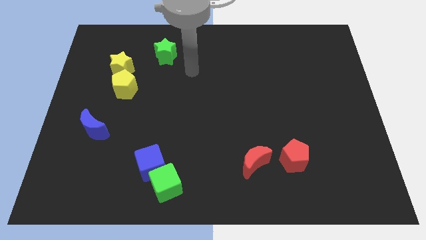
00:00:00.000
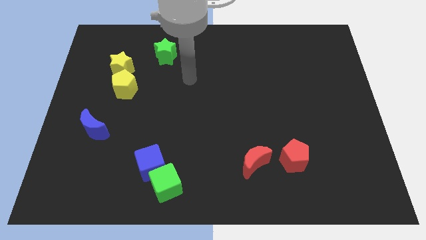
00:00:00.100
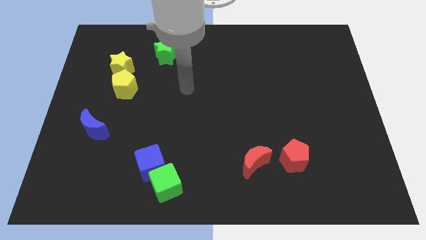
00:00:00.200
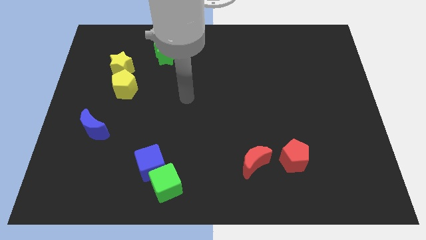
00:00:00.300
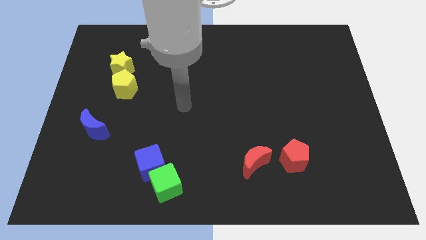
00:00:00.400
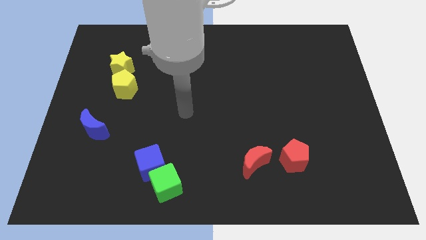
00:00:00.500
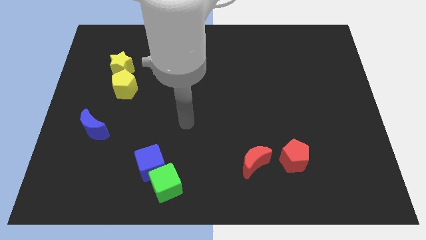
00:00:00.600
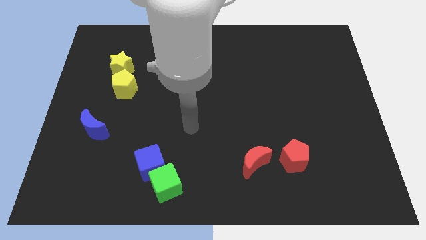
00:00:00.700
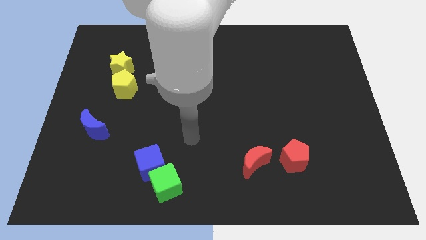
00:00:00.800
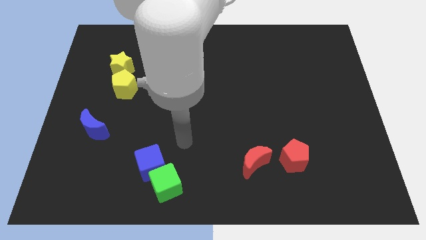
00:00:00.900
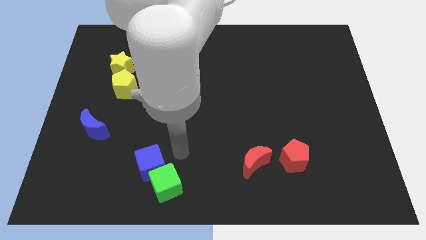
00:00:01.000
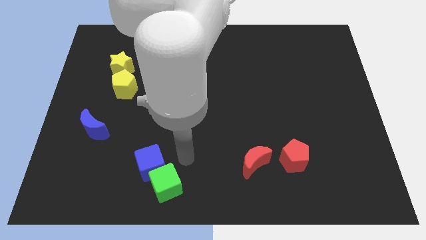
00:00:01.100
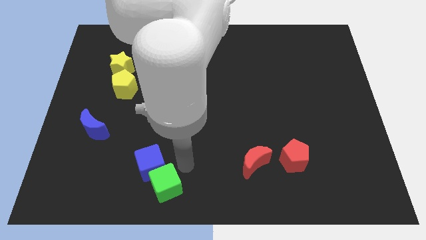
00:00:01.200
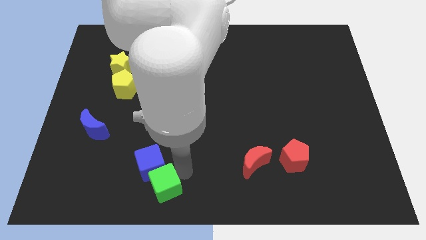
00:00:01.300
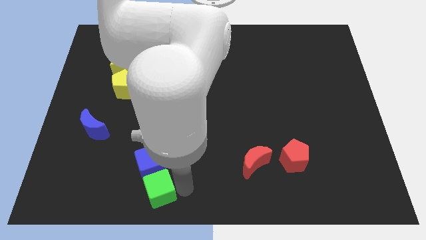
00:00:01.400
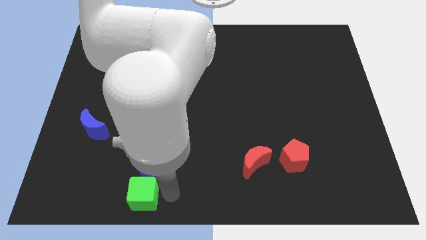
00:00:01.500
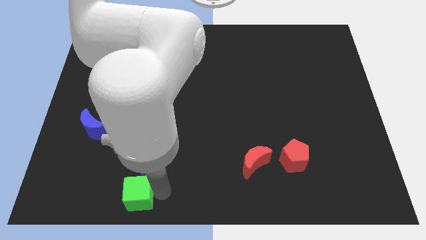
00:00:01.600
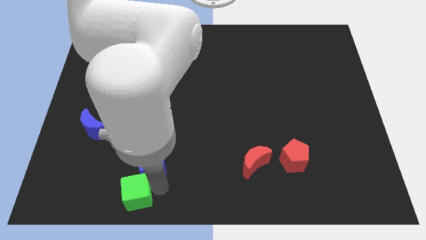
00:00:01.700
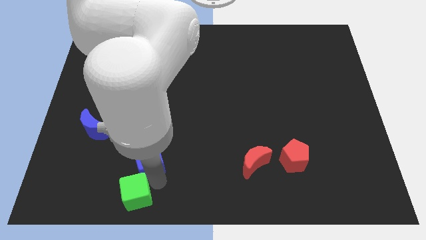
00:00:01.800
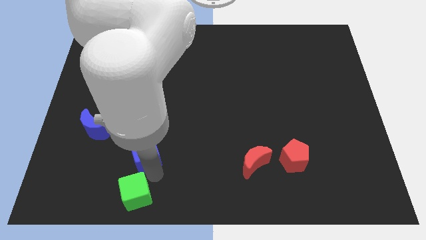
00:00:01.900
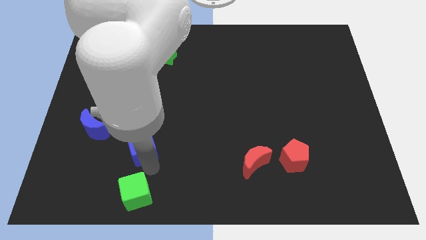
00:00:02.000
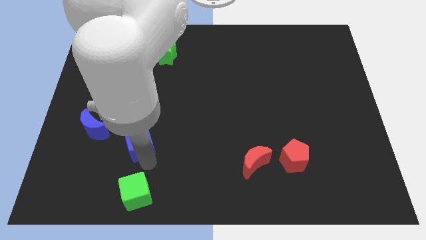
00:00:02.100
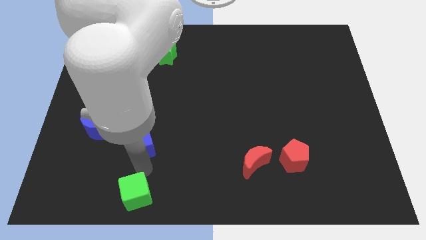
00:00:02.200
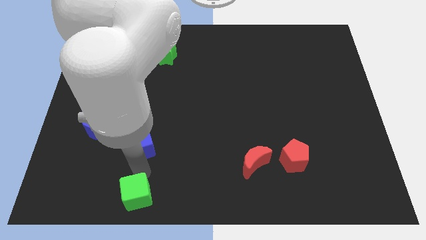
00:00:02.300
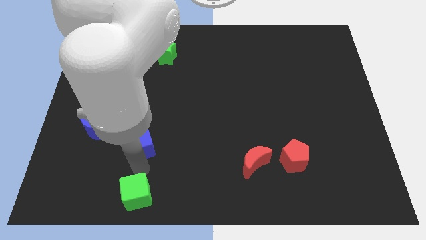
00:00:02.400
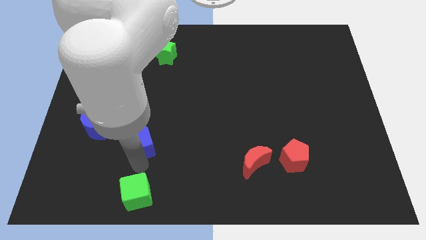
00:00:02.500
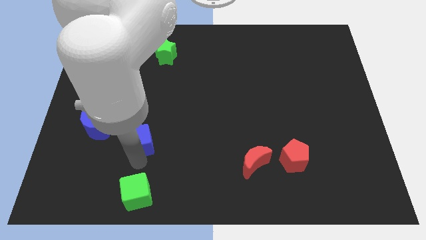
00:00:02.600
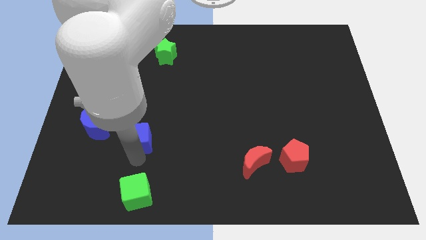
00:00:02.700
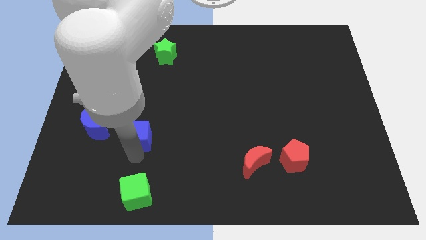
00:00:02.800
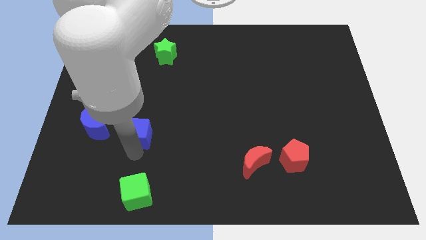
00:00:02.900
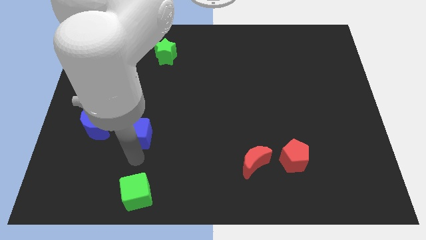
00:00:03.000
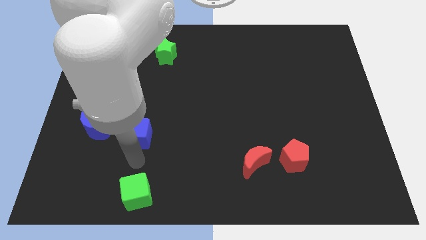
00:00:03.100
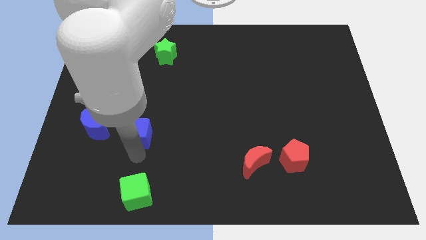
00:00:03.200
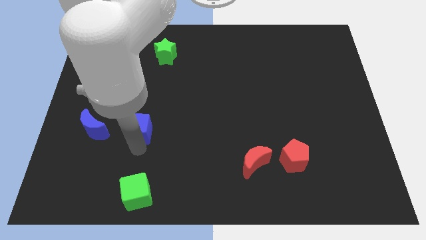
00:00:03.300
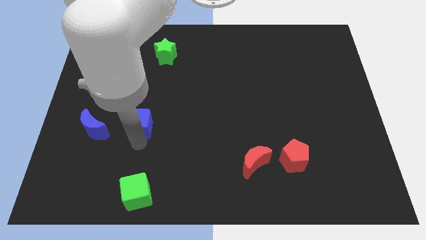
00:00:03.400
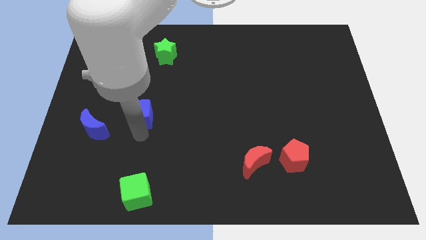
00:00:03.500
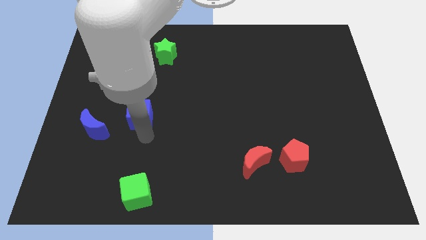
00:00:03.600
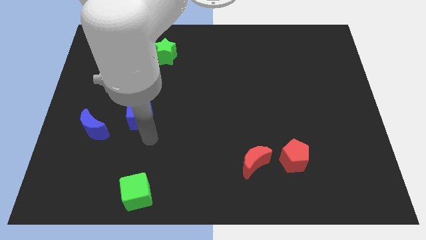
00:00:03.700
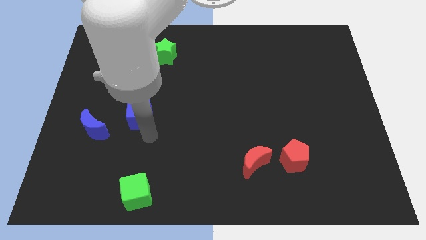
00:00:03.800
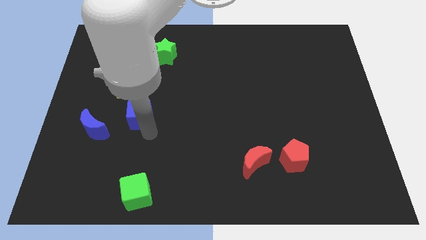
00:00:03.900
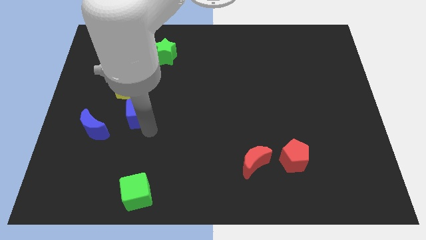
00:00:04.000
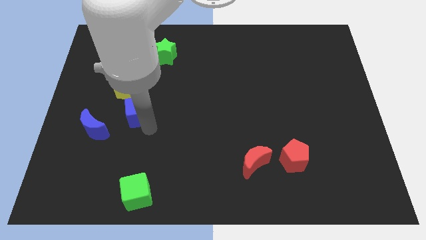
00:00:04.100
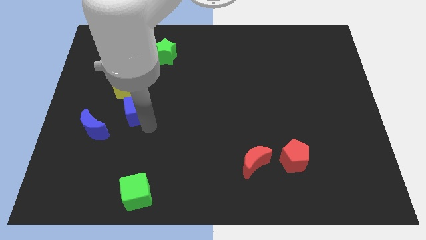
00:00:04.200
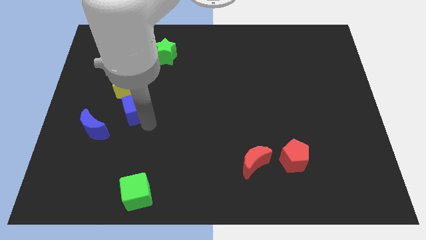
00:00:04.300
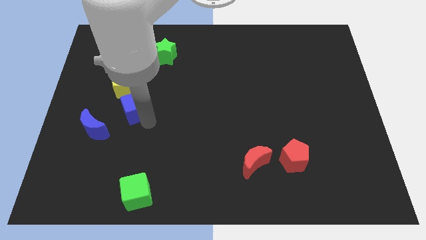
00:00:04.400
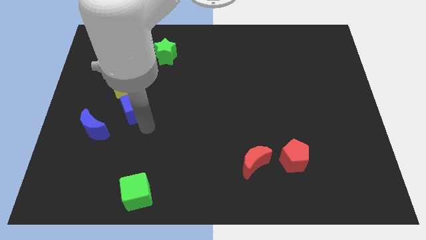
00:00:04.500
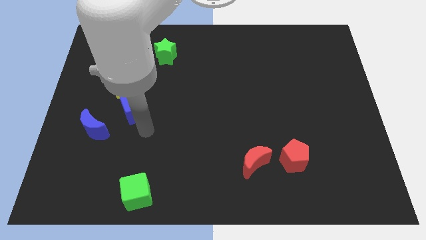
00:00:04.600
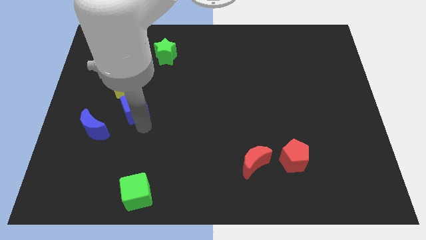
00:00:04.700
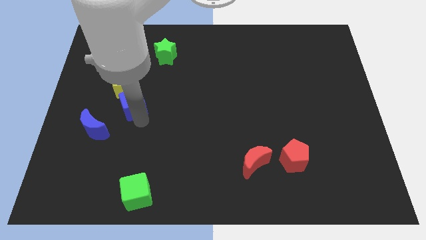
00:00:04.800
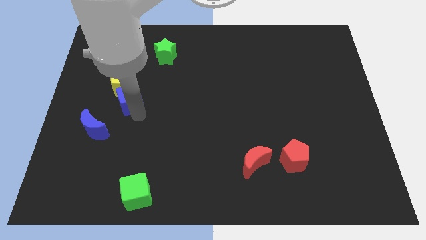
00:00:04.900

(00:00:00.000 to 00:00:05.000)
push the blue cube close to the yellow pentagon

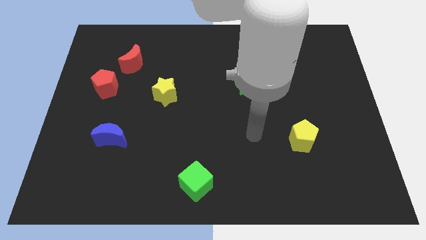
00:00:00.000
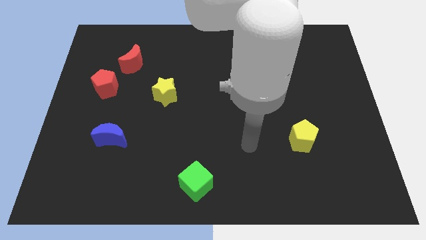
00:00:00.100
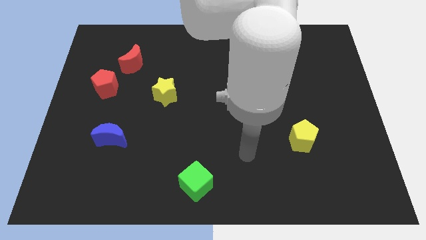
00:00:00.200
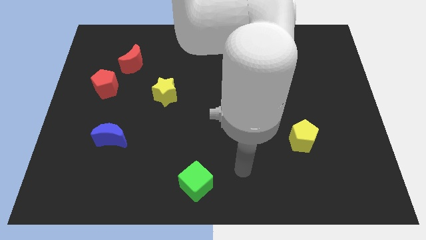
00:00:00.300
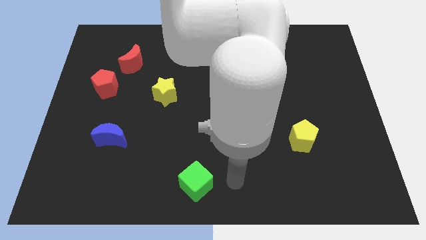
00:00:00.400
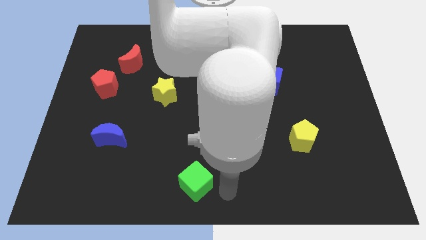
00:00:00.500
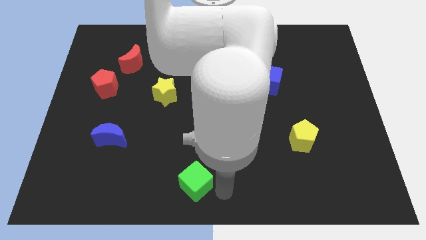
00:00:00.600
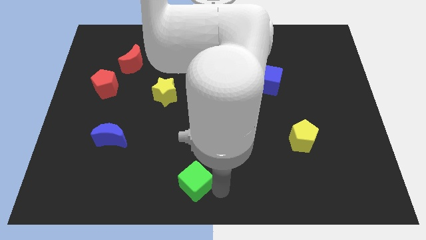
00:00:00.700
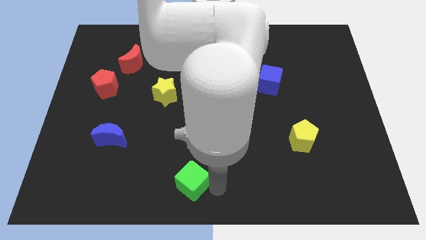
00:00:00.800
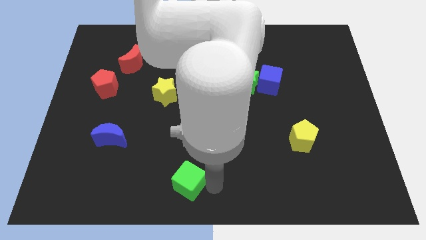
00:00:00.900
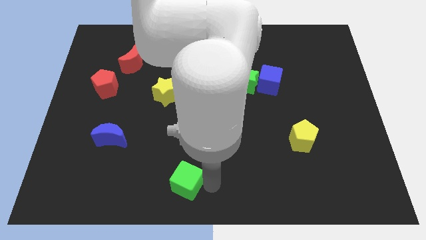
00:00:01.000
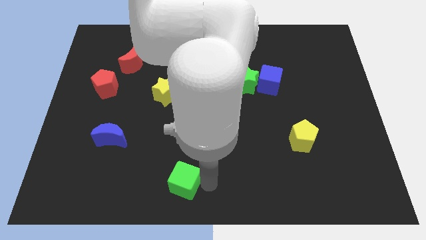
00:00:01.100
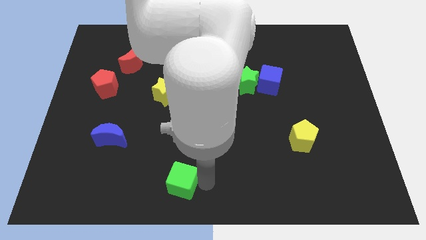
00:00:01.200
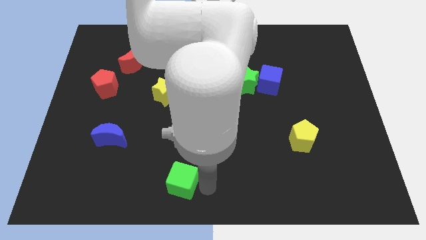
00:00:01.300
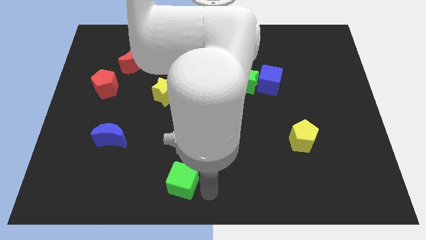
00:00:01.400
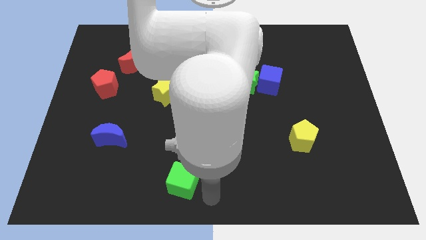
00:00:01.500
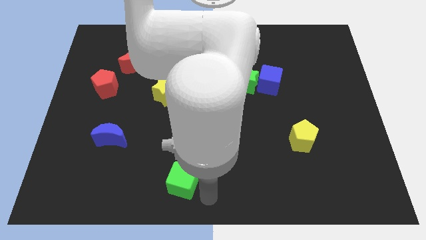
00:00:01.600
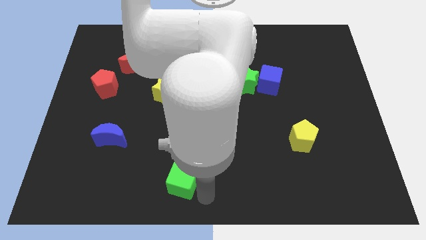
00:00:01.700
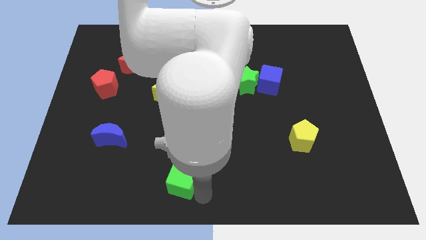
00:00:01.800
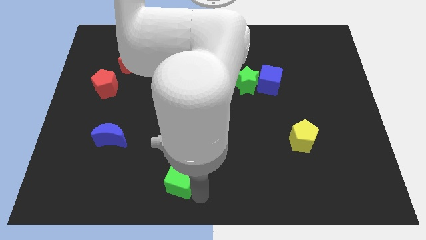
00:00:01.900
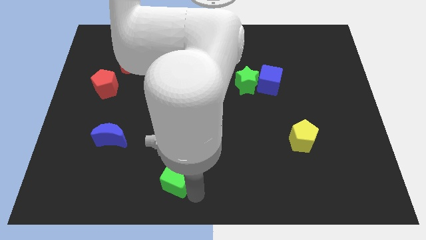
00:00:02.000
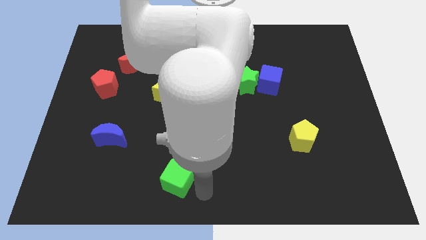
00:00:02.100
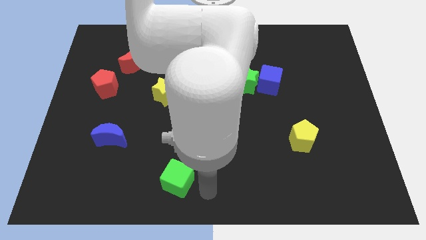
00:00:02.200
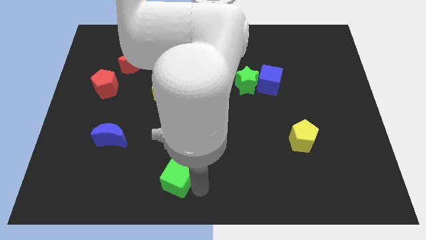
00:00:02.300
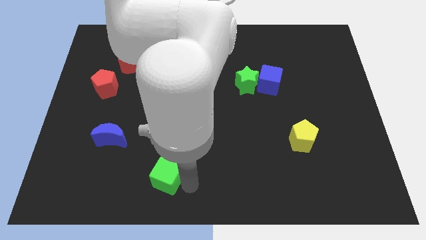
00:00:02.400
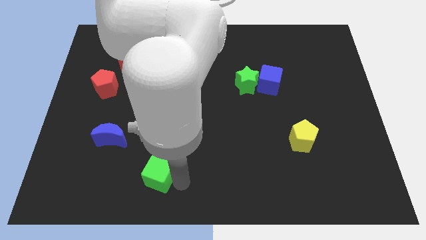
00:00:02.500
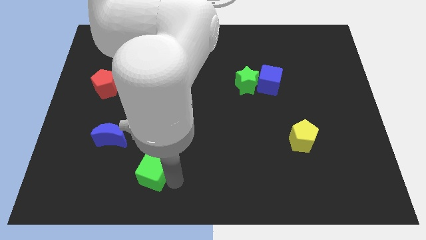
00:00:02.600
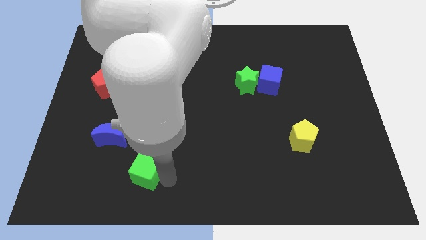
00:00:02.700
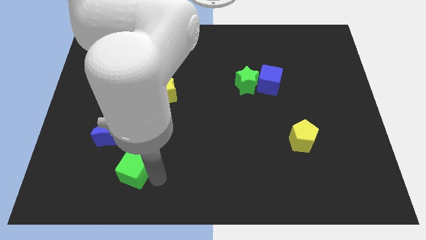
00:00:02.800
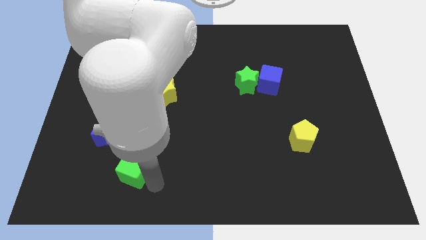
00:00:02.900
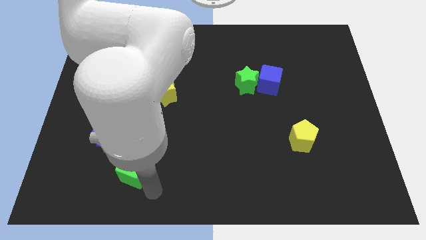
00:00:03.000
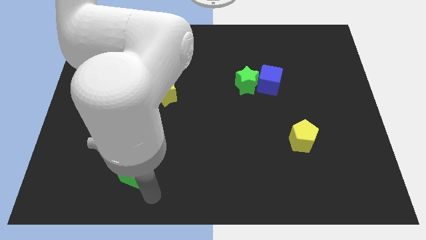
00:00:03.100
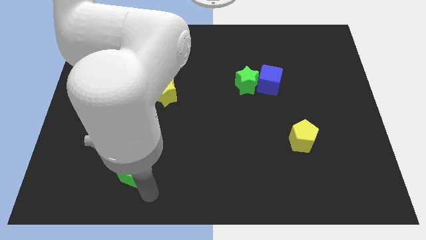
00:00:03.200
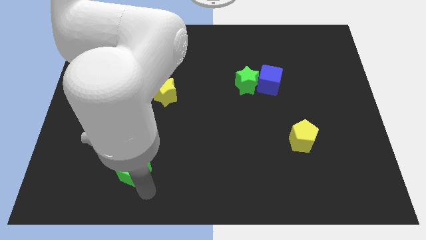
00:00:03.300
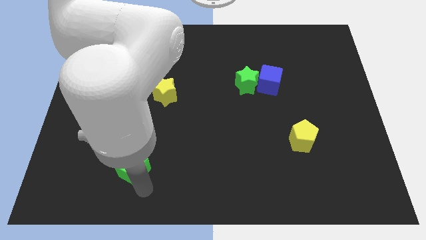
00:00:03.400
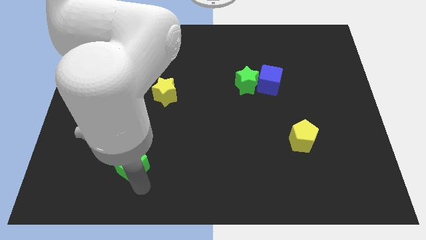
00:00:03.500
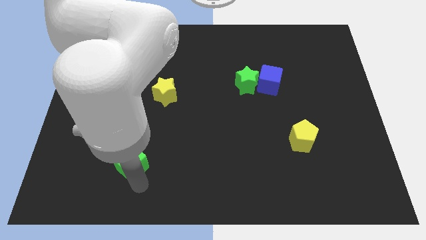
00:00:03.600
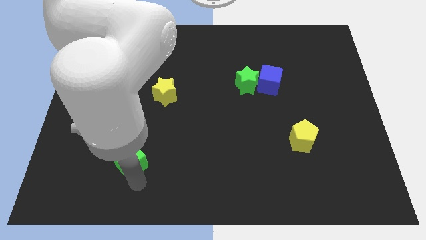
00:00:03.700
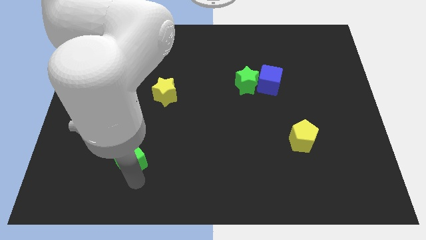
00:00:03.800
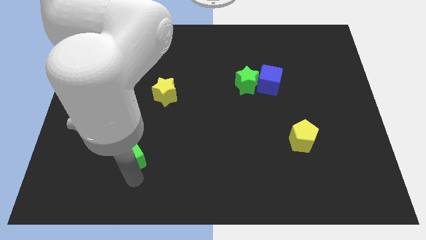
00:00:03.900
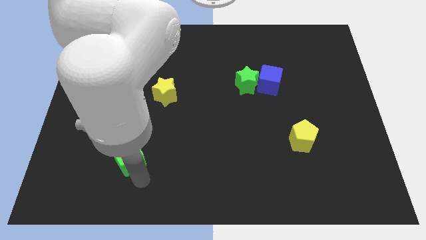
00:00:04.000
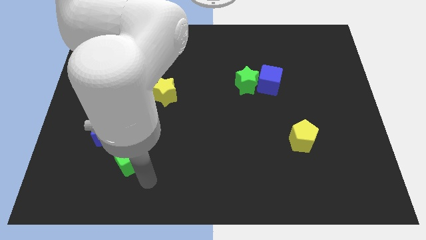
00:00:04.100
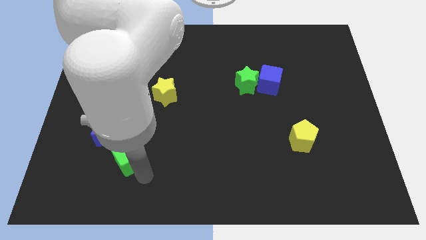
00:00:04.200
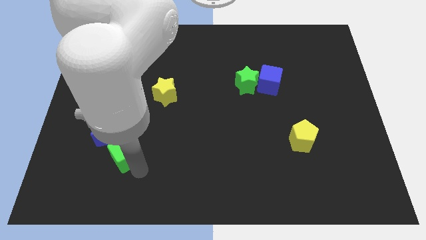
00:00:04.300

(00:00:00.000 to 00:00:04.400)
slide the green cube next to the blue moon
